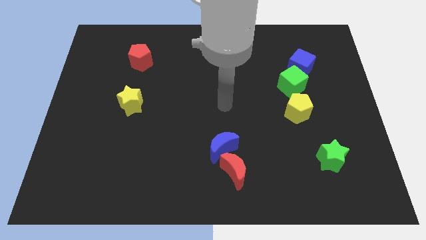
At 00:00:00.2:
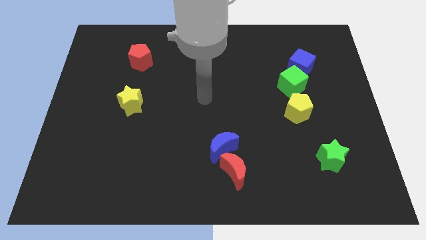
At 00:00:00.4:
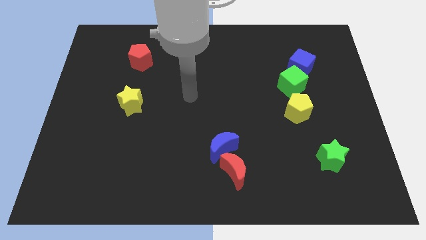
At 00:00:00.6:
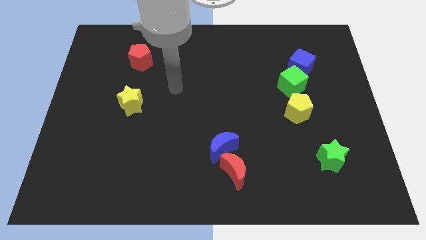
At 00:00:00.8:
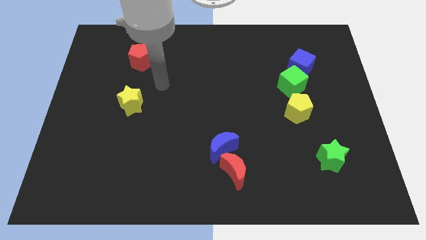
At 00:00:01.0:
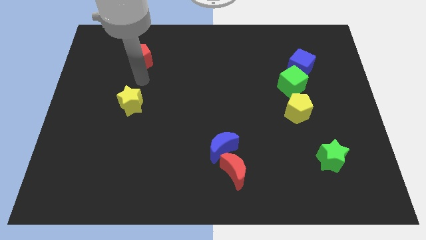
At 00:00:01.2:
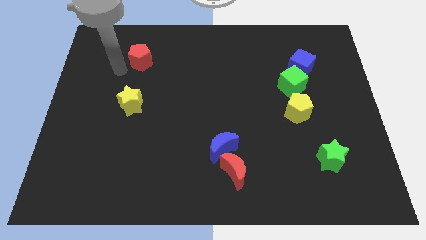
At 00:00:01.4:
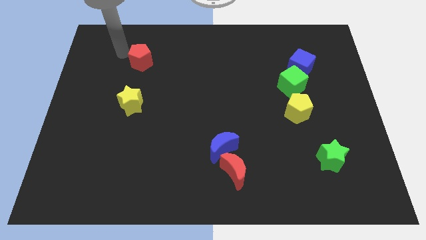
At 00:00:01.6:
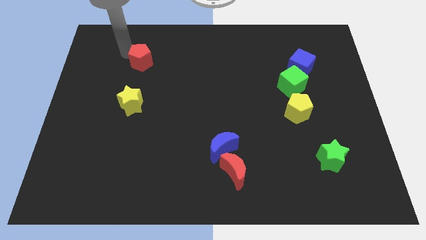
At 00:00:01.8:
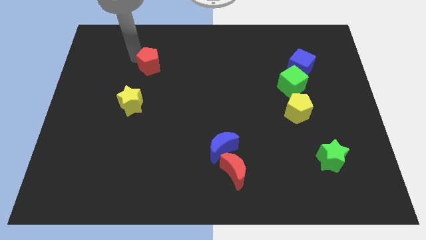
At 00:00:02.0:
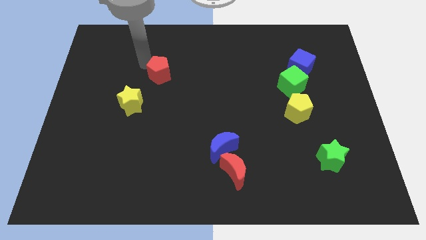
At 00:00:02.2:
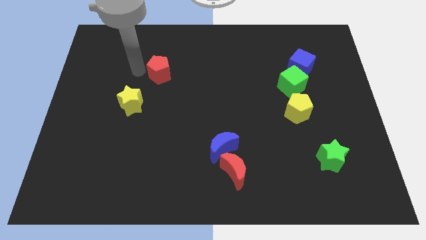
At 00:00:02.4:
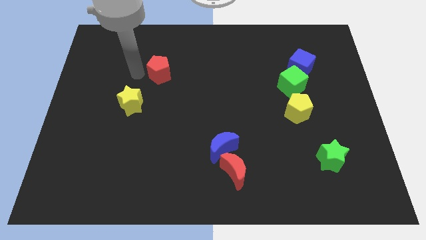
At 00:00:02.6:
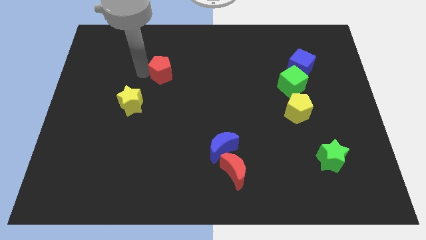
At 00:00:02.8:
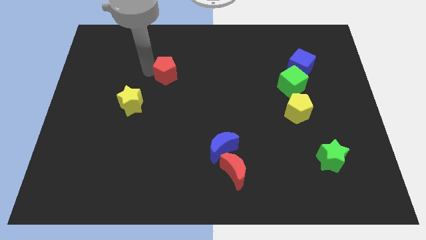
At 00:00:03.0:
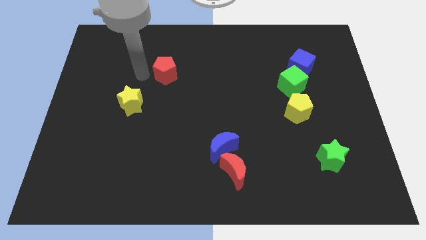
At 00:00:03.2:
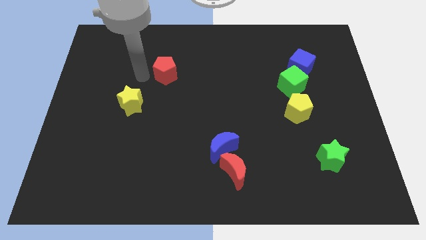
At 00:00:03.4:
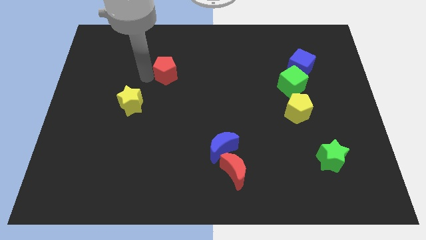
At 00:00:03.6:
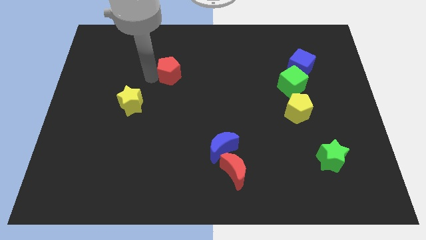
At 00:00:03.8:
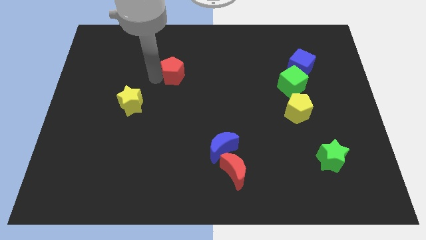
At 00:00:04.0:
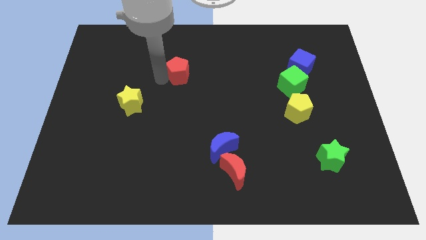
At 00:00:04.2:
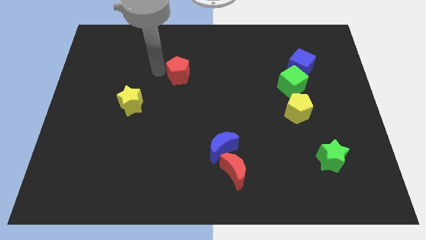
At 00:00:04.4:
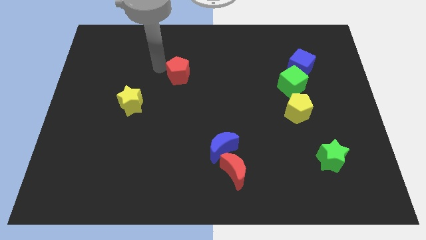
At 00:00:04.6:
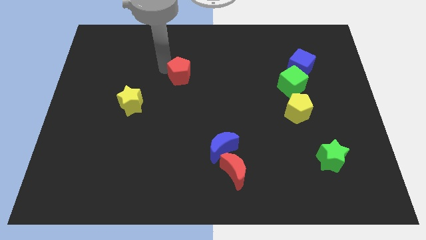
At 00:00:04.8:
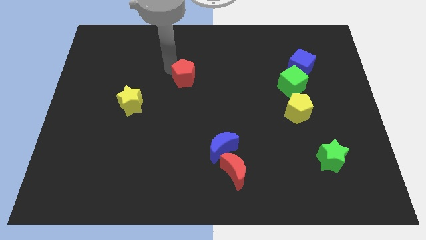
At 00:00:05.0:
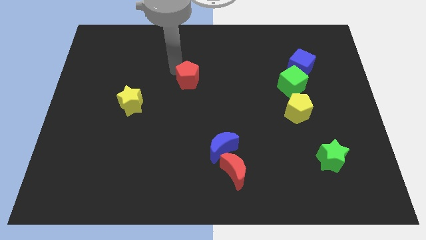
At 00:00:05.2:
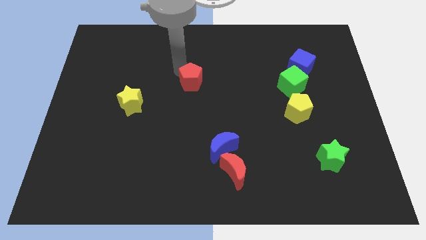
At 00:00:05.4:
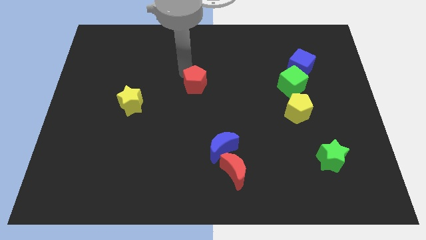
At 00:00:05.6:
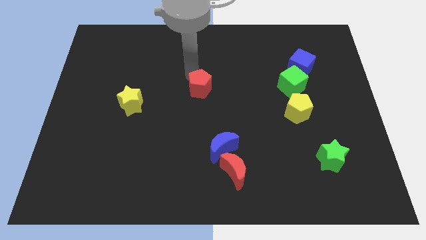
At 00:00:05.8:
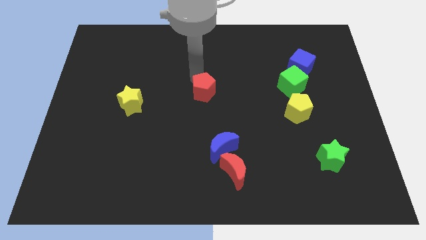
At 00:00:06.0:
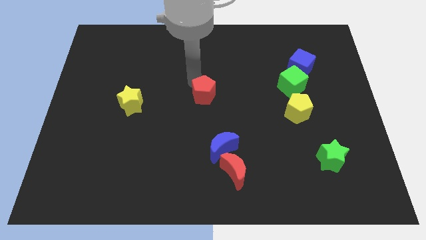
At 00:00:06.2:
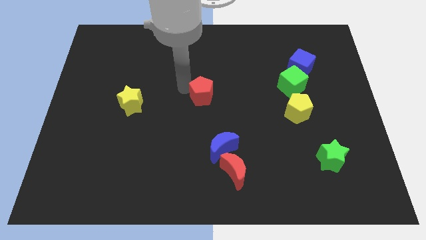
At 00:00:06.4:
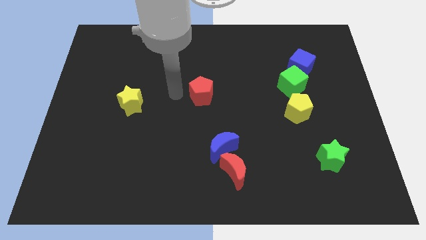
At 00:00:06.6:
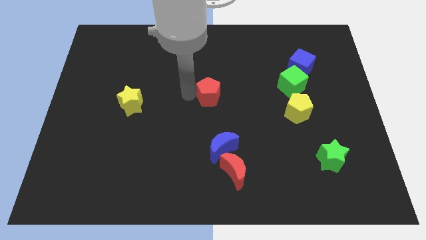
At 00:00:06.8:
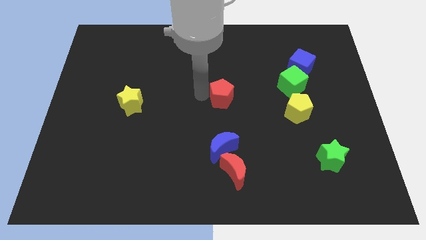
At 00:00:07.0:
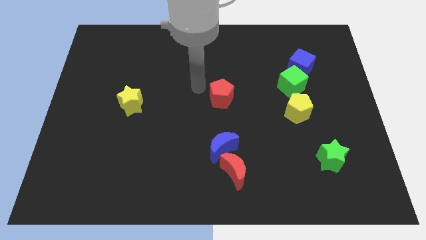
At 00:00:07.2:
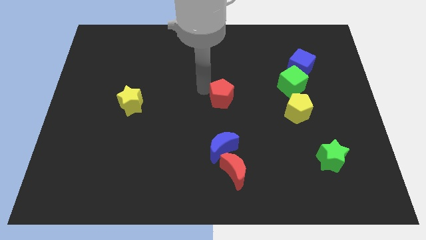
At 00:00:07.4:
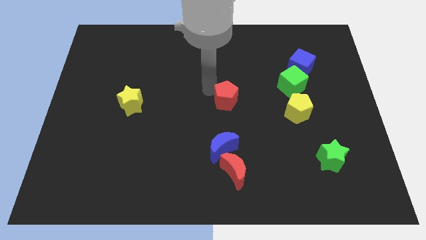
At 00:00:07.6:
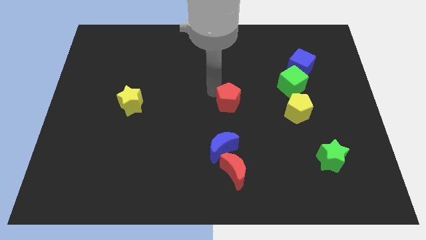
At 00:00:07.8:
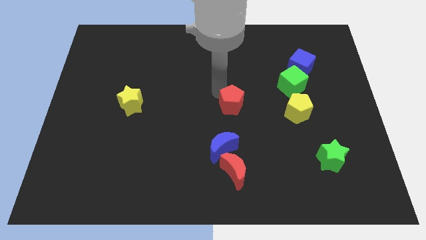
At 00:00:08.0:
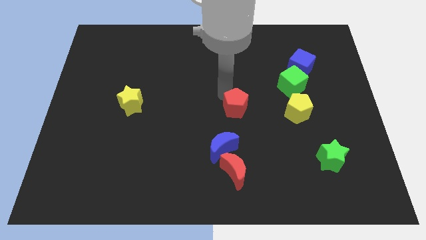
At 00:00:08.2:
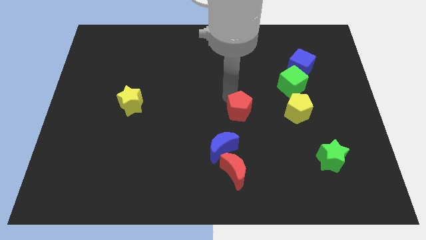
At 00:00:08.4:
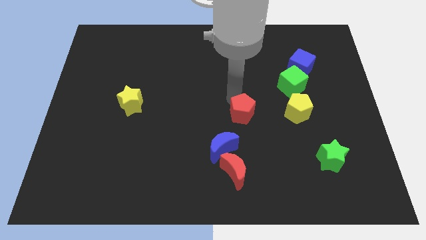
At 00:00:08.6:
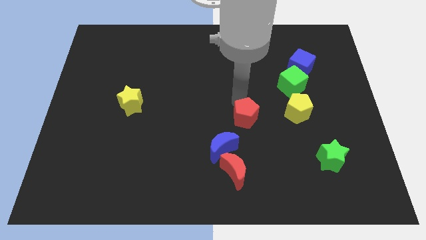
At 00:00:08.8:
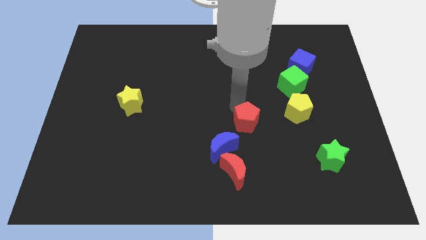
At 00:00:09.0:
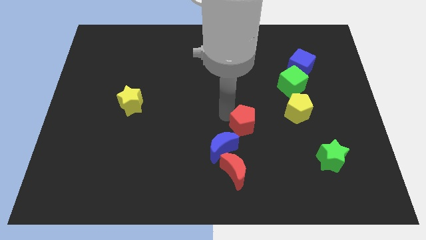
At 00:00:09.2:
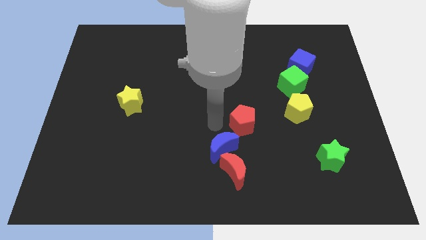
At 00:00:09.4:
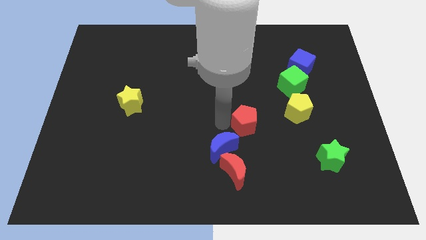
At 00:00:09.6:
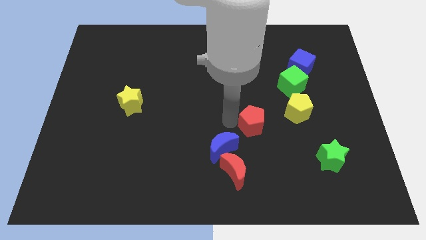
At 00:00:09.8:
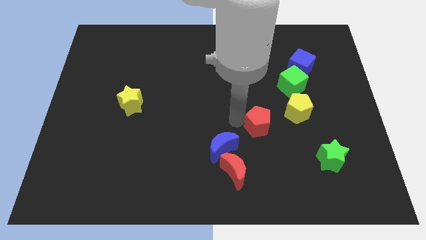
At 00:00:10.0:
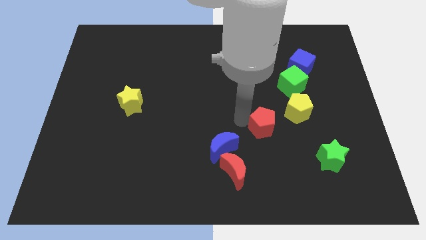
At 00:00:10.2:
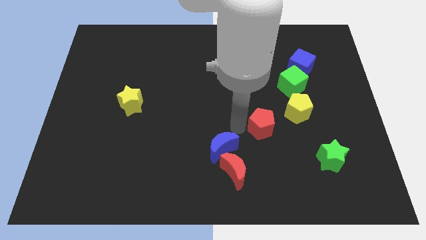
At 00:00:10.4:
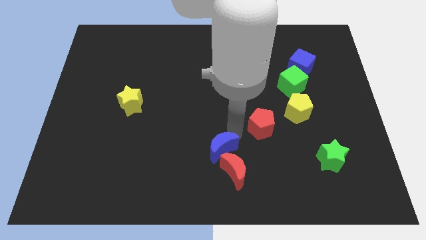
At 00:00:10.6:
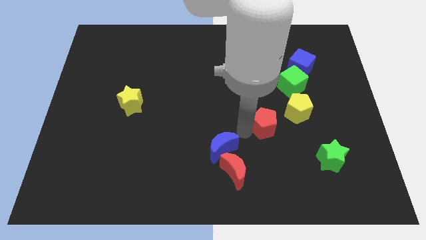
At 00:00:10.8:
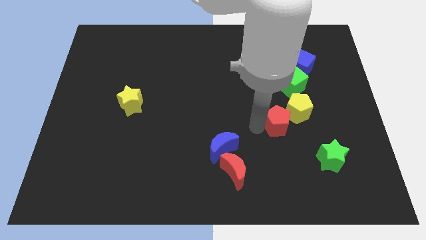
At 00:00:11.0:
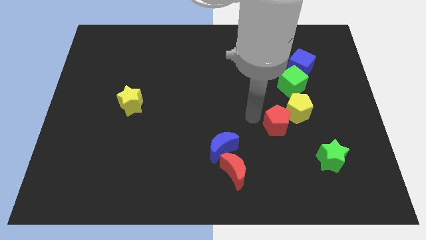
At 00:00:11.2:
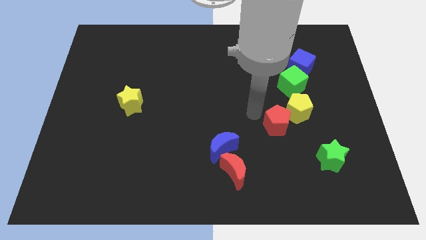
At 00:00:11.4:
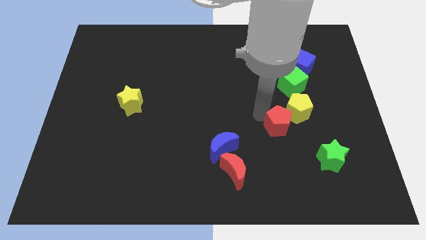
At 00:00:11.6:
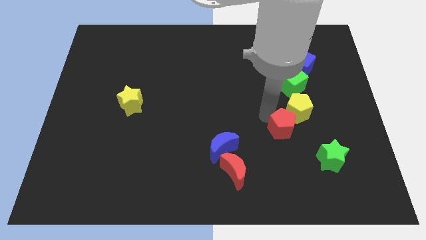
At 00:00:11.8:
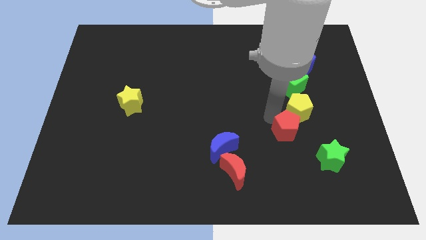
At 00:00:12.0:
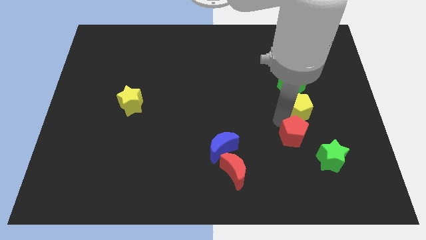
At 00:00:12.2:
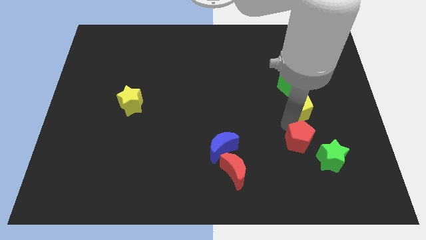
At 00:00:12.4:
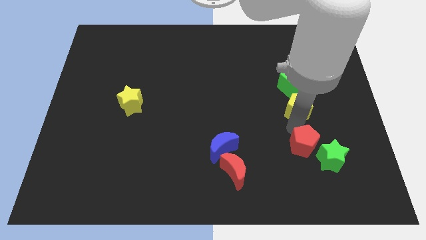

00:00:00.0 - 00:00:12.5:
slide the red pentagon to the green star

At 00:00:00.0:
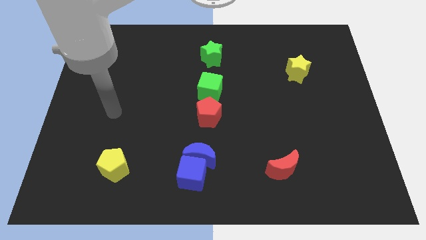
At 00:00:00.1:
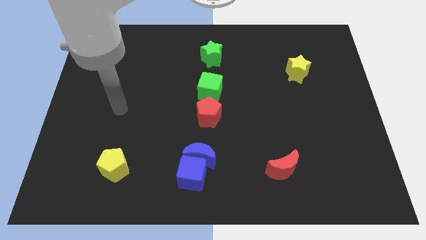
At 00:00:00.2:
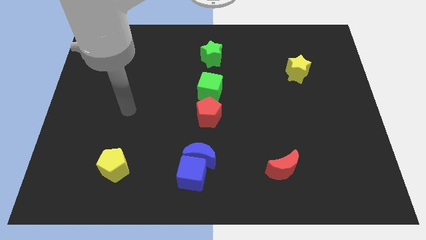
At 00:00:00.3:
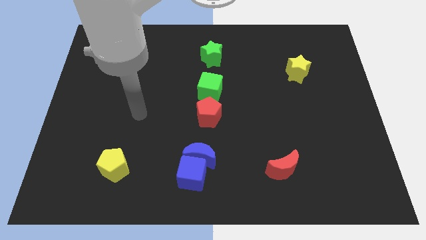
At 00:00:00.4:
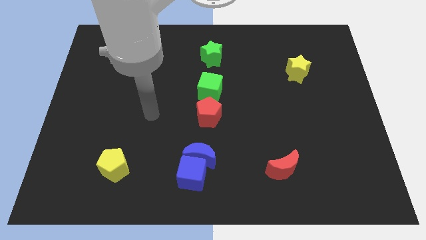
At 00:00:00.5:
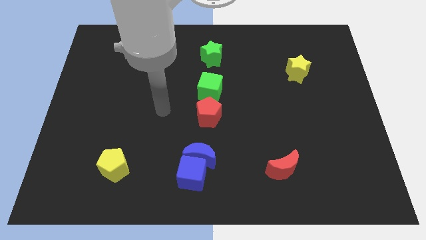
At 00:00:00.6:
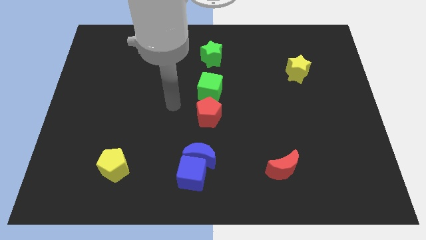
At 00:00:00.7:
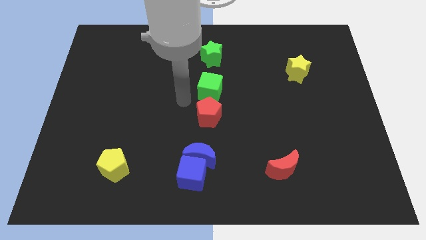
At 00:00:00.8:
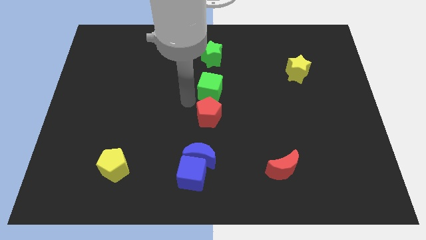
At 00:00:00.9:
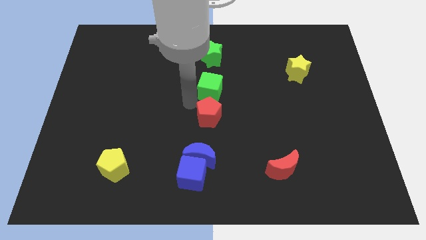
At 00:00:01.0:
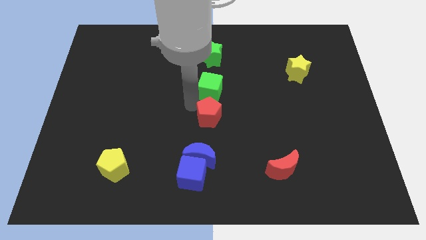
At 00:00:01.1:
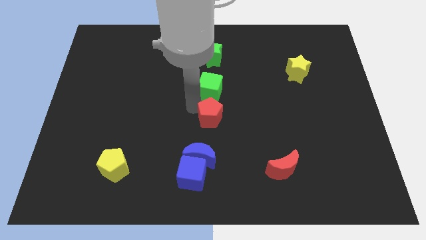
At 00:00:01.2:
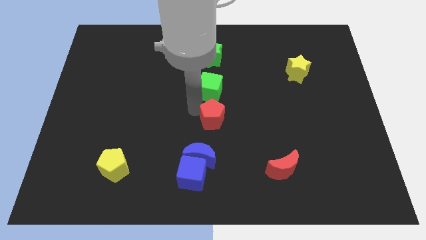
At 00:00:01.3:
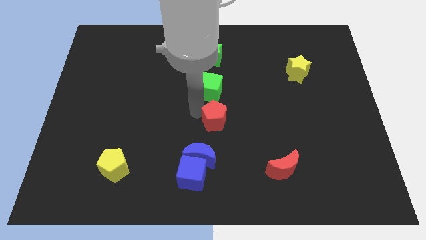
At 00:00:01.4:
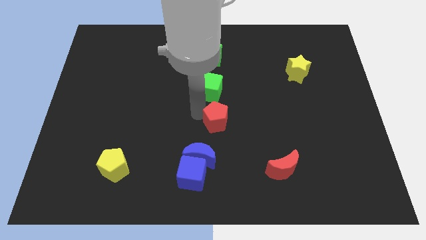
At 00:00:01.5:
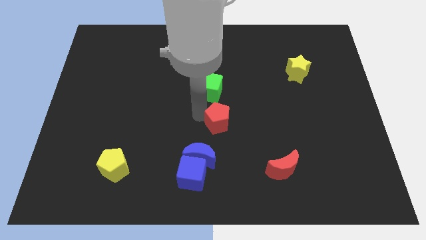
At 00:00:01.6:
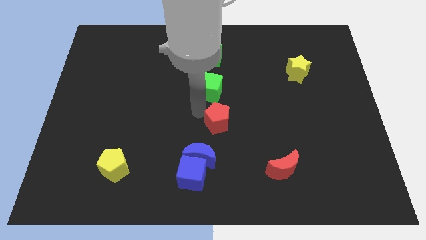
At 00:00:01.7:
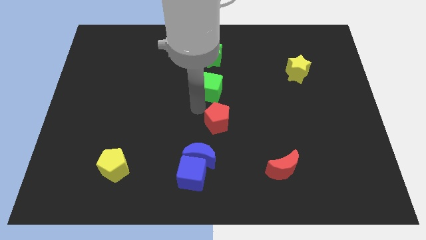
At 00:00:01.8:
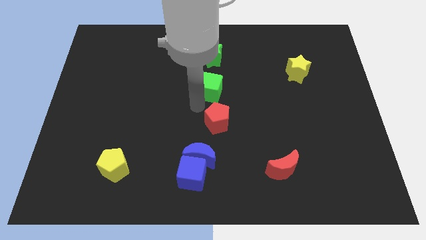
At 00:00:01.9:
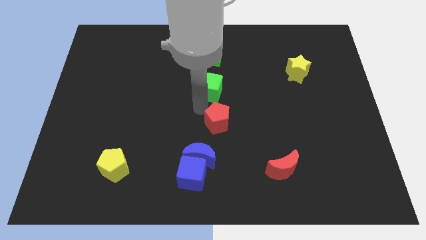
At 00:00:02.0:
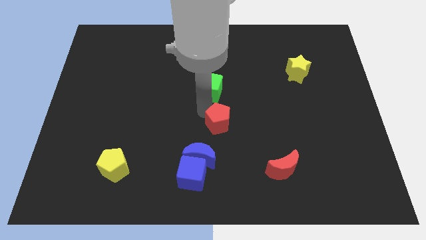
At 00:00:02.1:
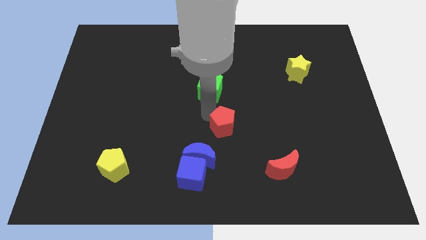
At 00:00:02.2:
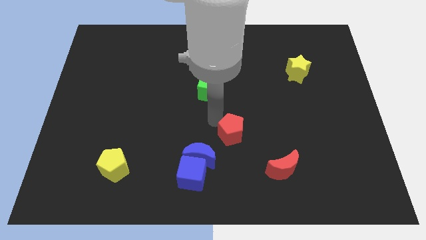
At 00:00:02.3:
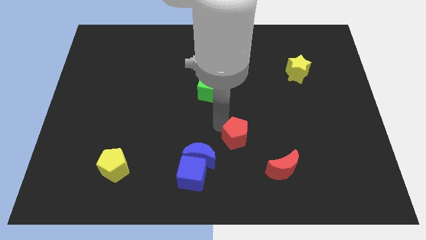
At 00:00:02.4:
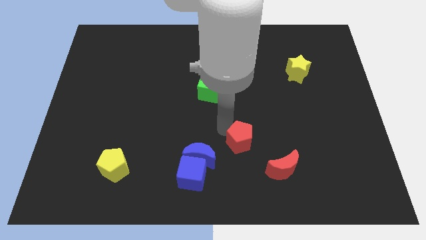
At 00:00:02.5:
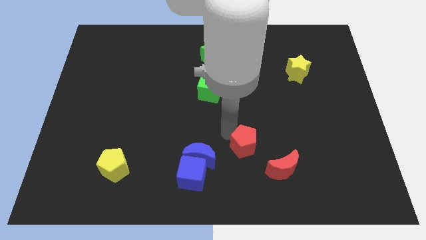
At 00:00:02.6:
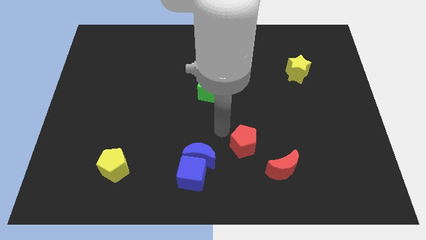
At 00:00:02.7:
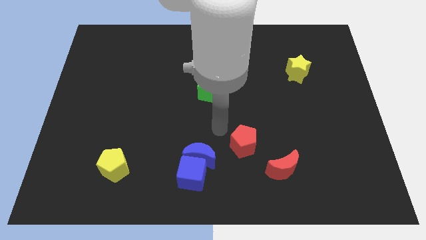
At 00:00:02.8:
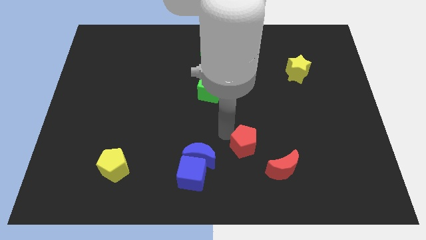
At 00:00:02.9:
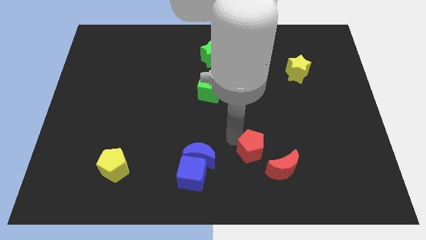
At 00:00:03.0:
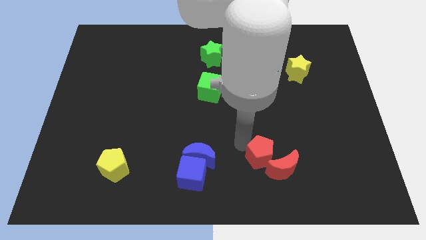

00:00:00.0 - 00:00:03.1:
put the red pentagon next to the red moon
